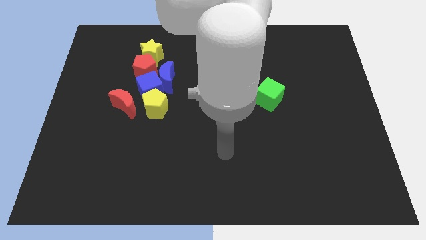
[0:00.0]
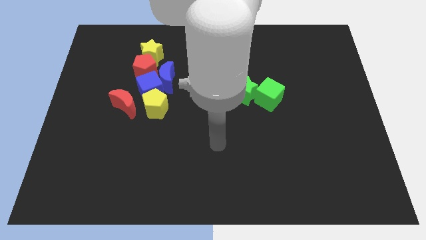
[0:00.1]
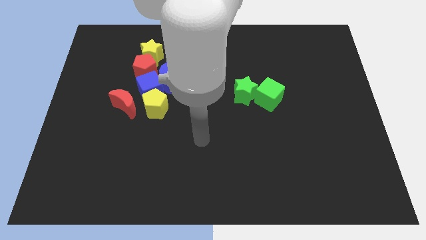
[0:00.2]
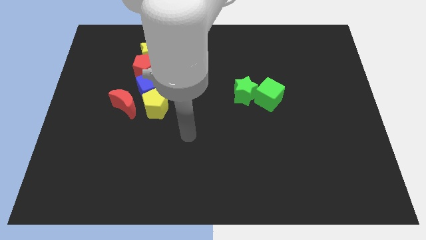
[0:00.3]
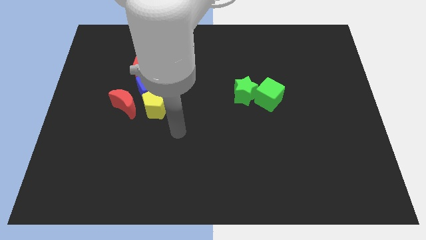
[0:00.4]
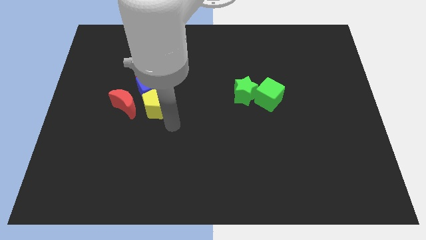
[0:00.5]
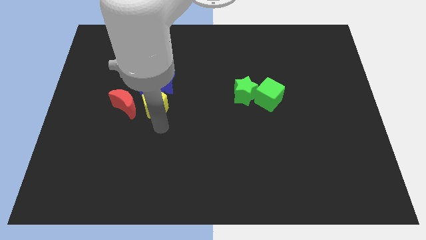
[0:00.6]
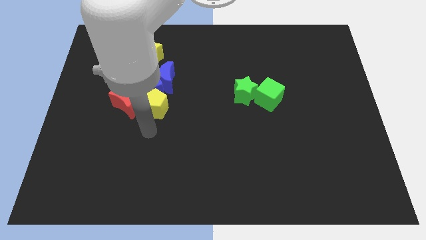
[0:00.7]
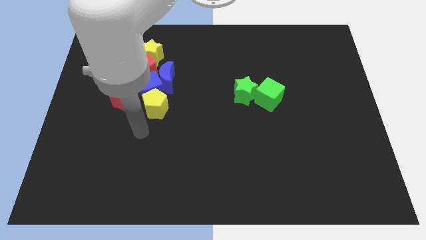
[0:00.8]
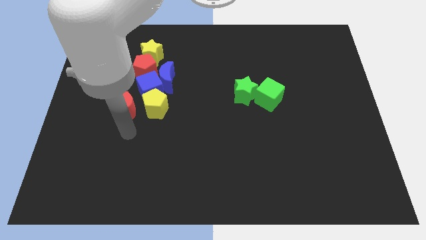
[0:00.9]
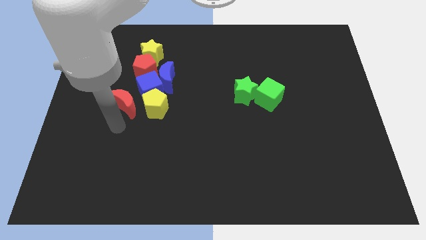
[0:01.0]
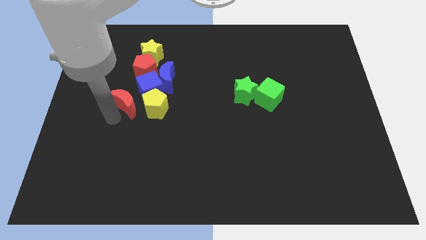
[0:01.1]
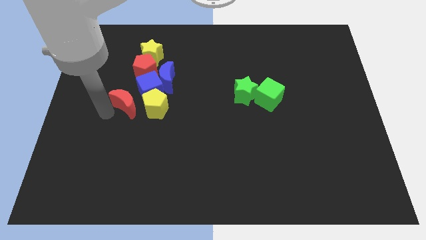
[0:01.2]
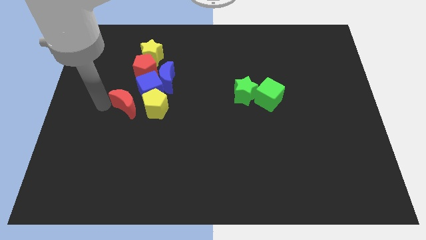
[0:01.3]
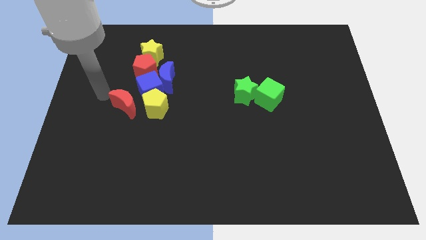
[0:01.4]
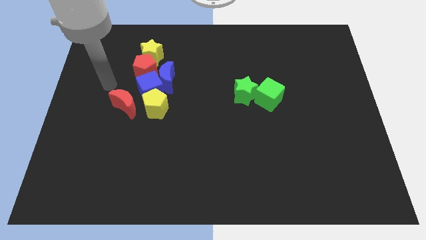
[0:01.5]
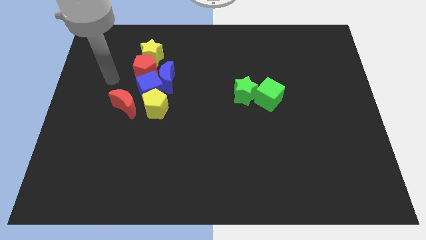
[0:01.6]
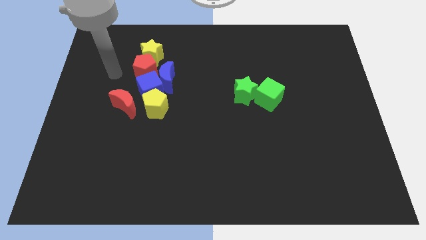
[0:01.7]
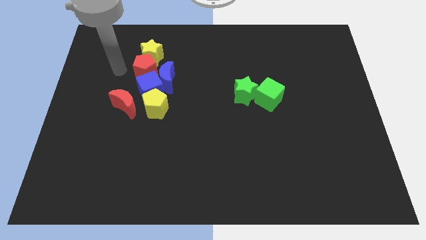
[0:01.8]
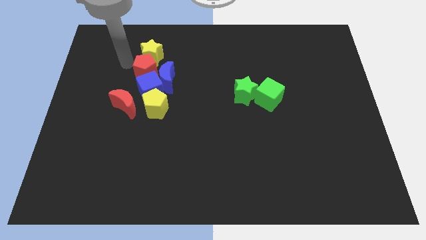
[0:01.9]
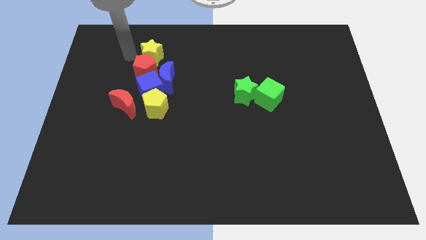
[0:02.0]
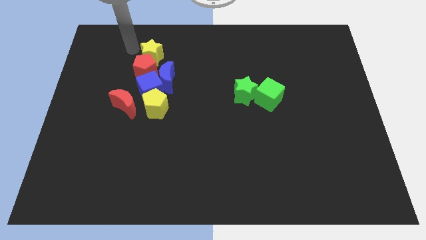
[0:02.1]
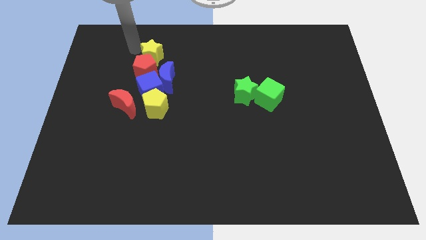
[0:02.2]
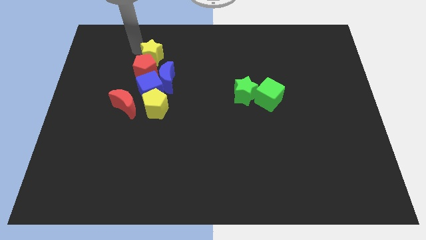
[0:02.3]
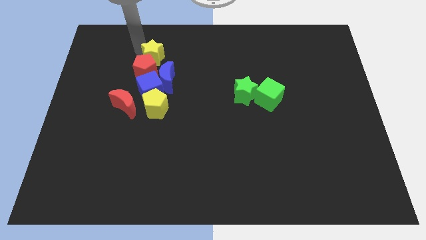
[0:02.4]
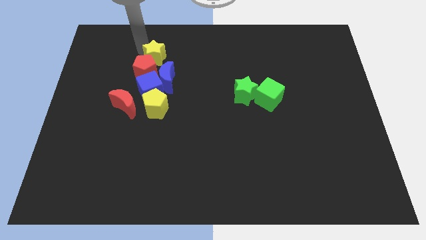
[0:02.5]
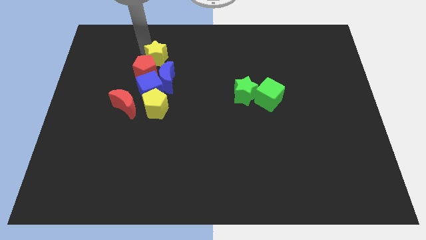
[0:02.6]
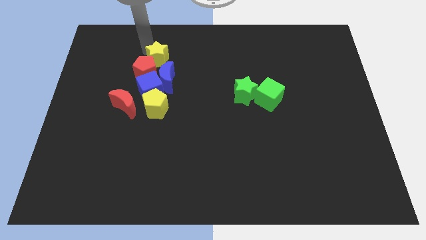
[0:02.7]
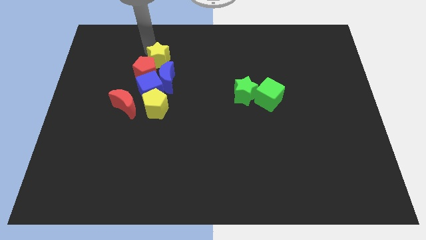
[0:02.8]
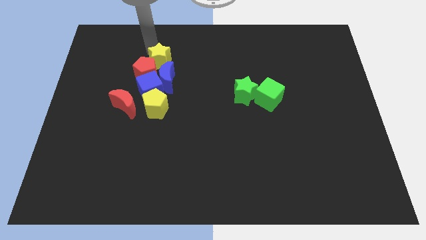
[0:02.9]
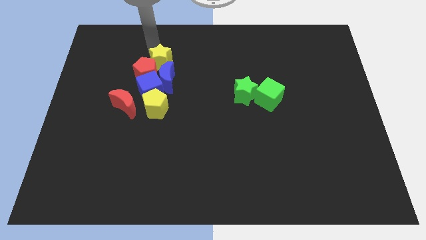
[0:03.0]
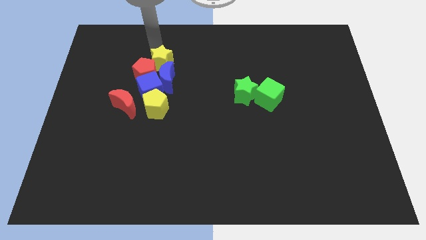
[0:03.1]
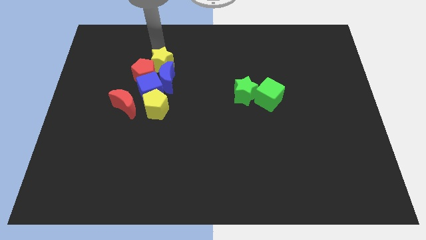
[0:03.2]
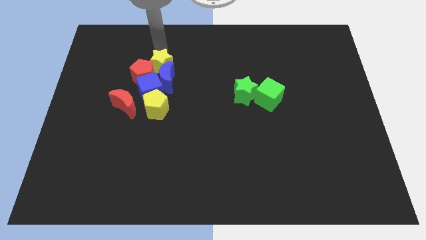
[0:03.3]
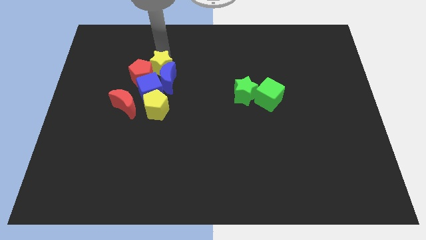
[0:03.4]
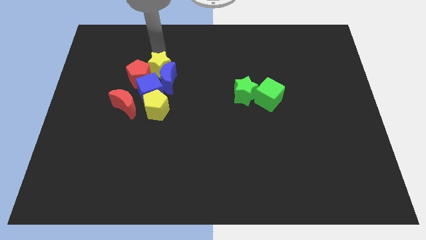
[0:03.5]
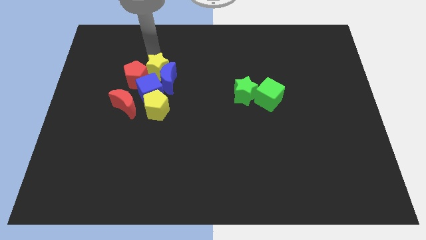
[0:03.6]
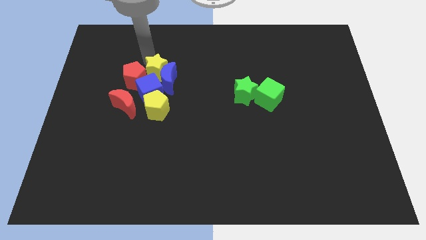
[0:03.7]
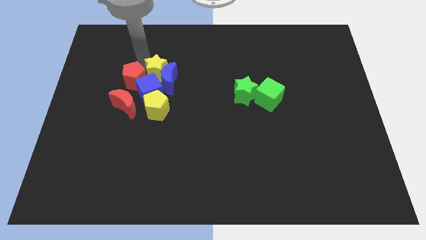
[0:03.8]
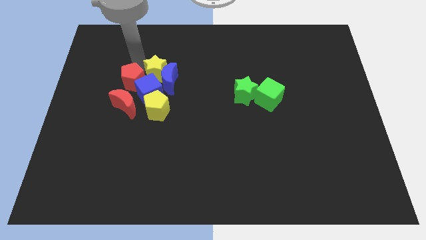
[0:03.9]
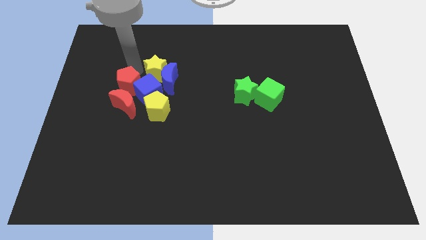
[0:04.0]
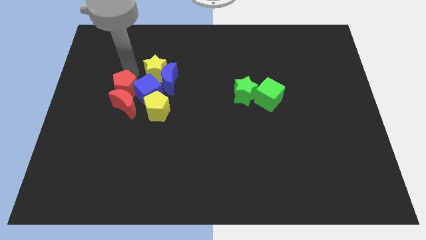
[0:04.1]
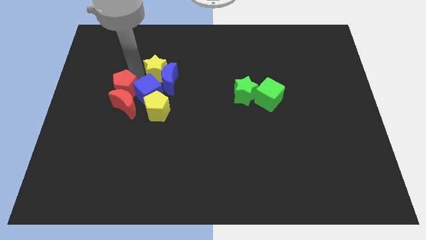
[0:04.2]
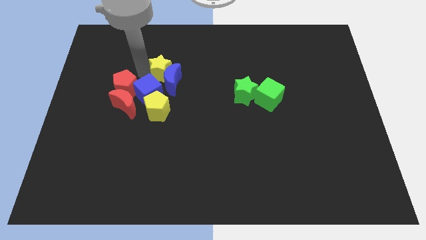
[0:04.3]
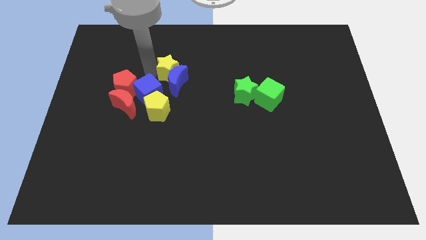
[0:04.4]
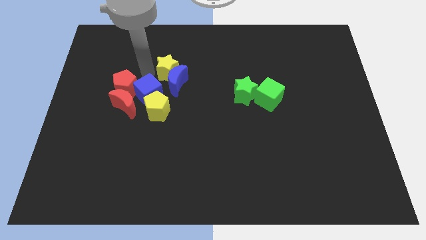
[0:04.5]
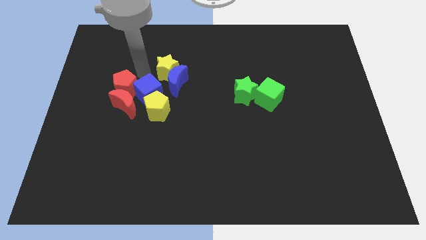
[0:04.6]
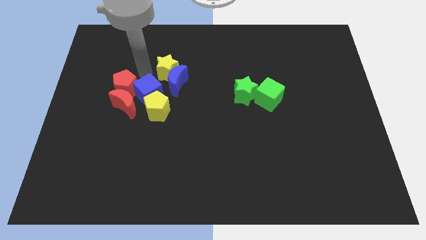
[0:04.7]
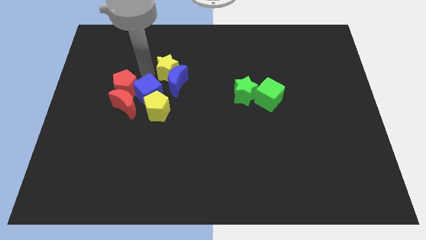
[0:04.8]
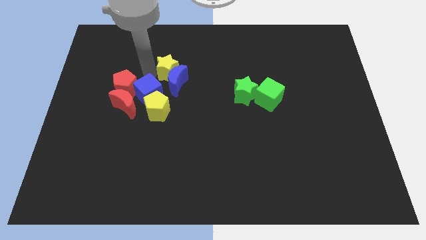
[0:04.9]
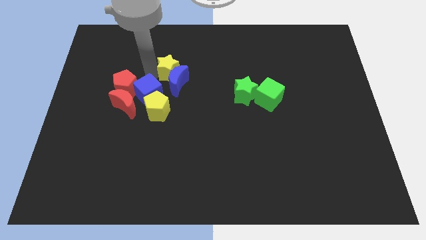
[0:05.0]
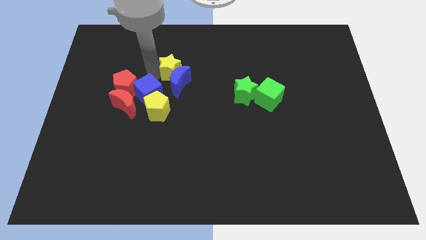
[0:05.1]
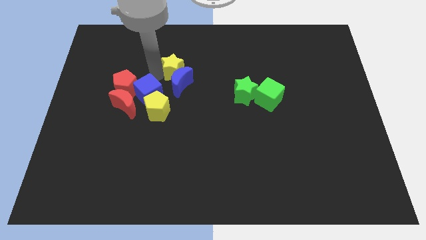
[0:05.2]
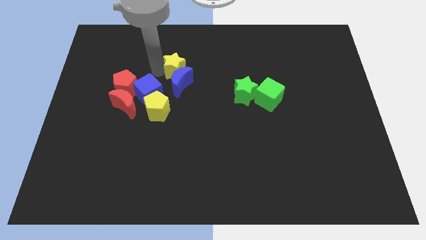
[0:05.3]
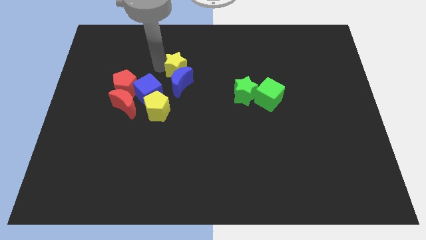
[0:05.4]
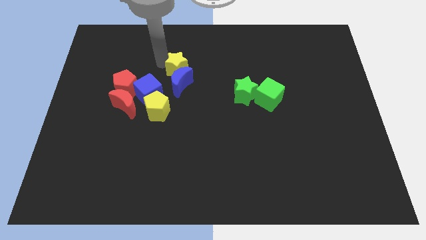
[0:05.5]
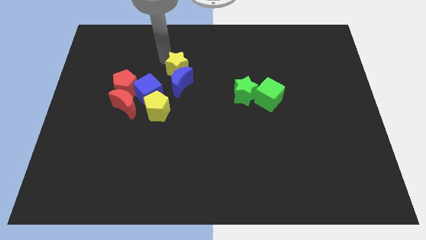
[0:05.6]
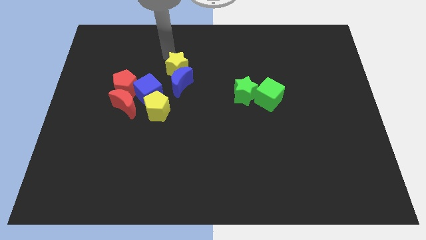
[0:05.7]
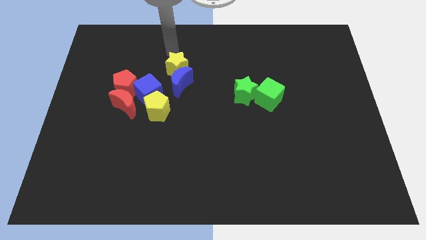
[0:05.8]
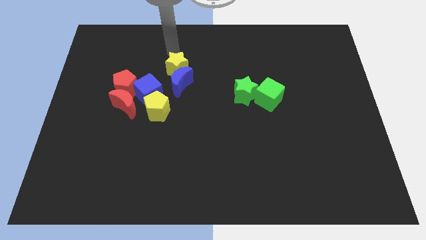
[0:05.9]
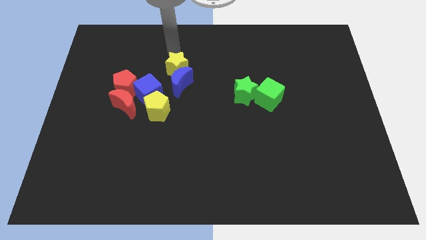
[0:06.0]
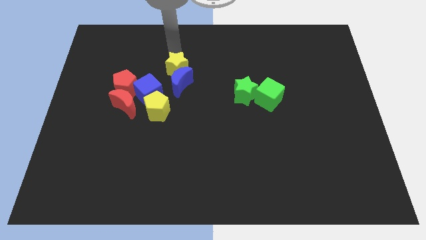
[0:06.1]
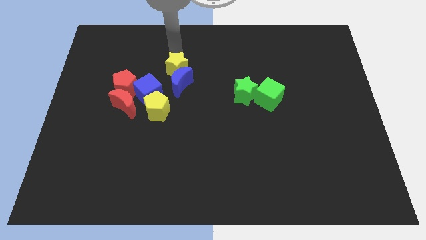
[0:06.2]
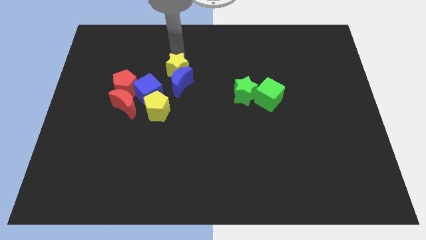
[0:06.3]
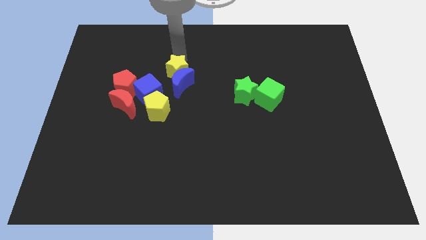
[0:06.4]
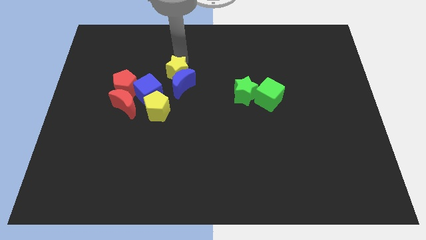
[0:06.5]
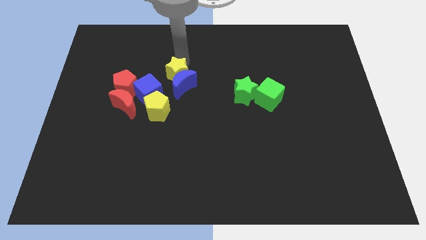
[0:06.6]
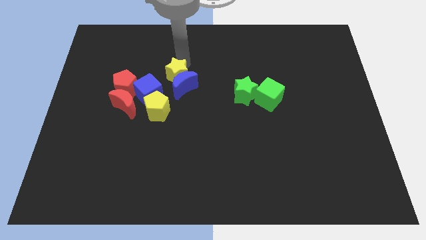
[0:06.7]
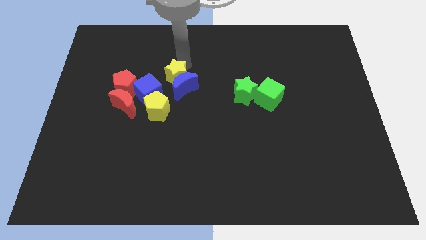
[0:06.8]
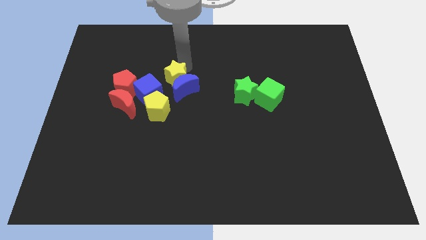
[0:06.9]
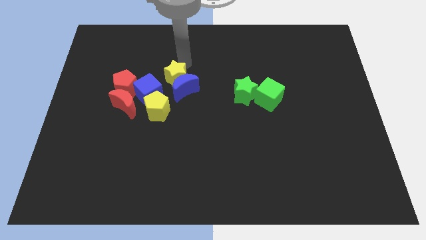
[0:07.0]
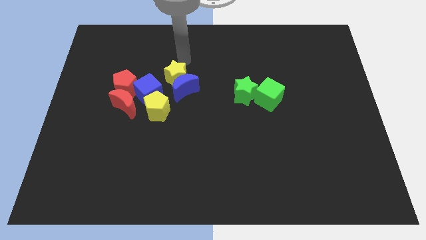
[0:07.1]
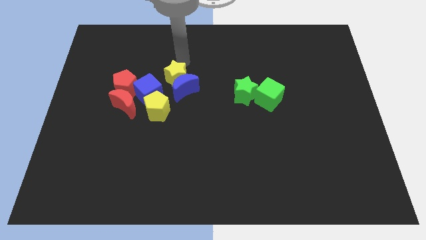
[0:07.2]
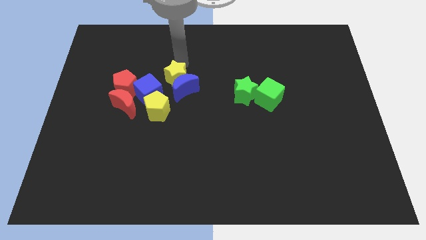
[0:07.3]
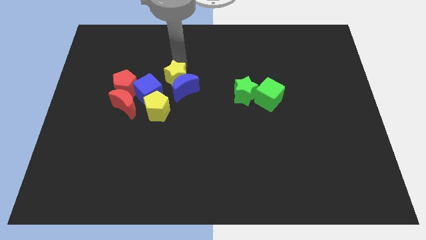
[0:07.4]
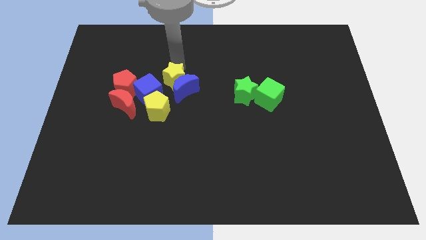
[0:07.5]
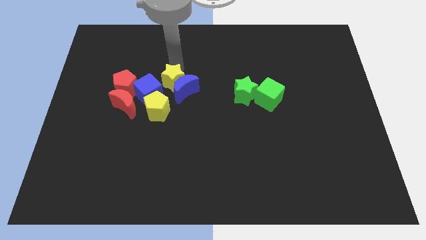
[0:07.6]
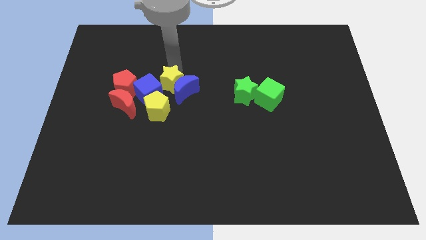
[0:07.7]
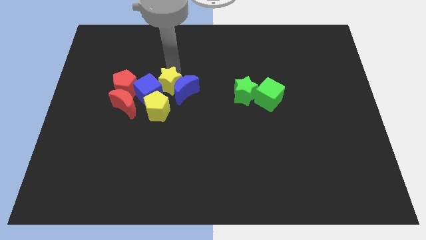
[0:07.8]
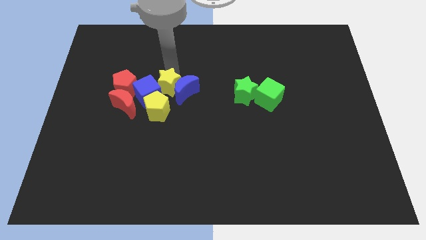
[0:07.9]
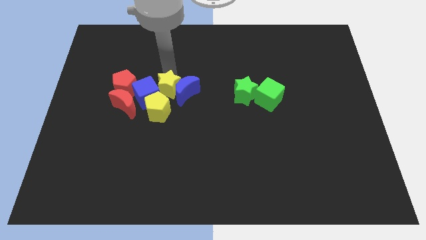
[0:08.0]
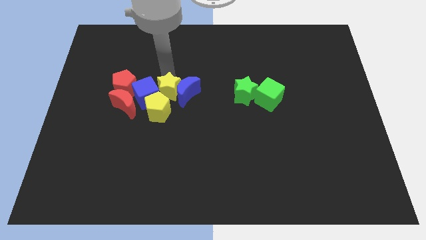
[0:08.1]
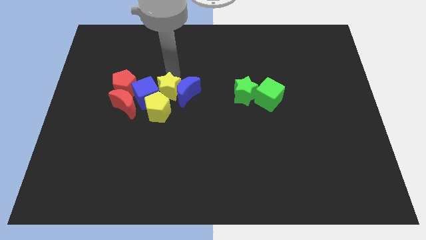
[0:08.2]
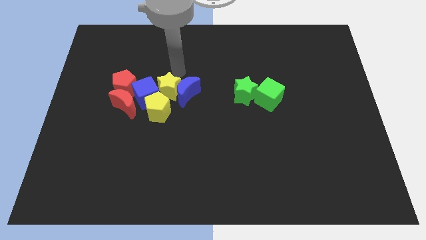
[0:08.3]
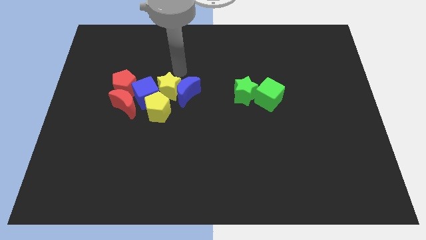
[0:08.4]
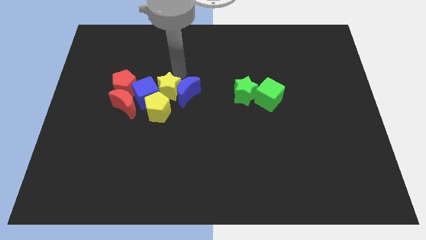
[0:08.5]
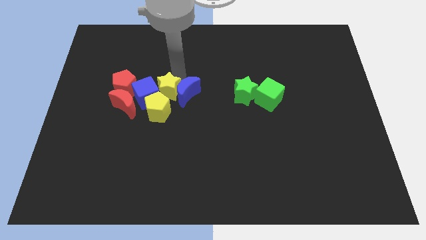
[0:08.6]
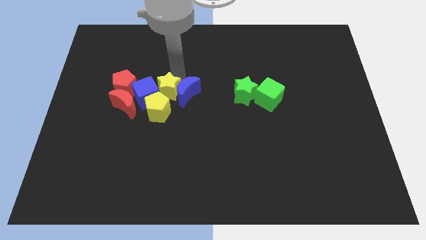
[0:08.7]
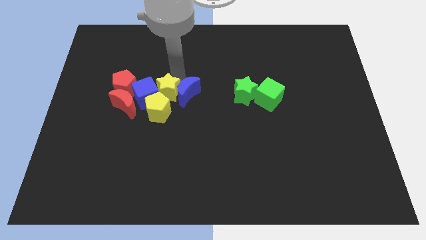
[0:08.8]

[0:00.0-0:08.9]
push the yellow star next to the yellow pentagon
